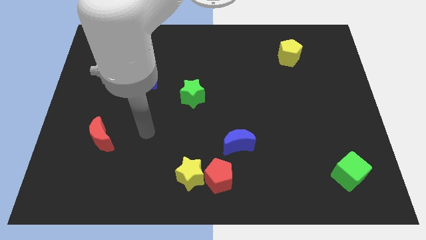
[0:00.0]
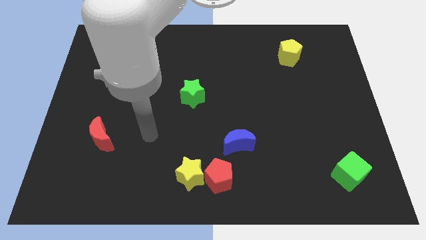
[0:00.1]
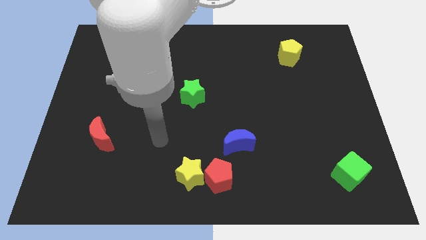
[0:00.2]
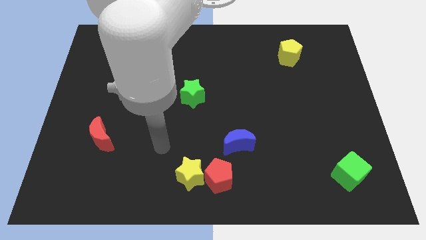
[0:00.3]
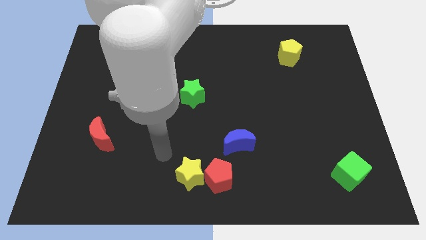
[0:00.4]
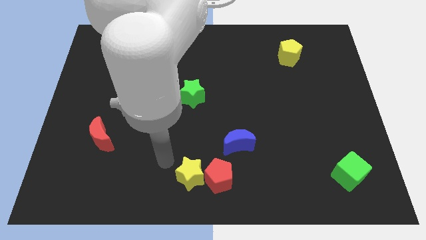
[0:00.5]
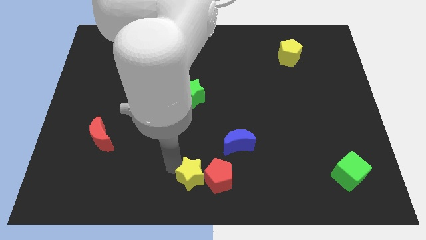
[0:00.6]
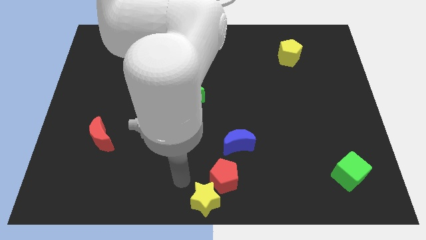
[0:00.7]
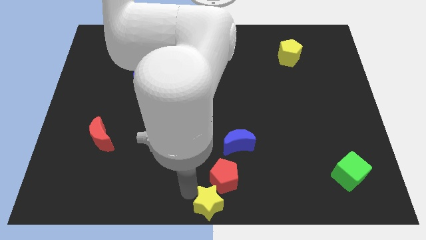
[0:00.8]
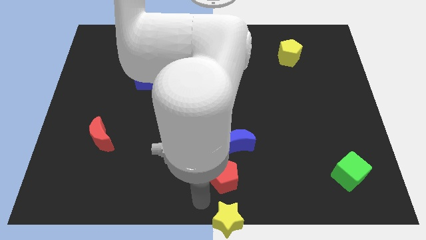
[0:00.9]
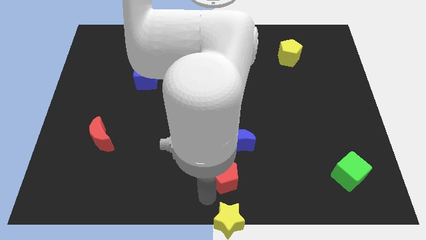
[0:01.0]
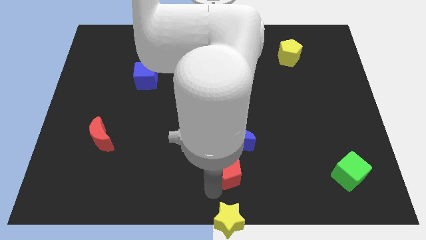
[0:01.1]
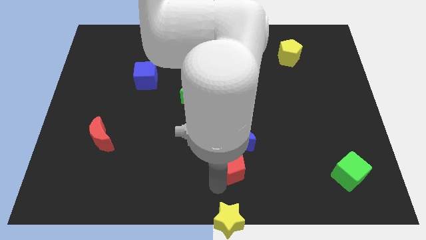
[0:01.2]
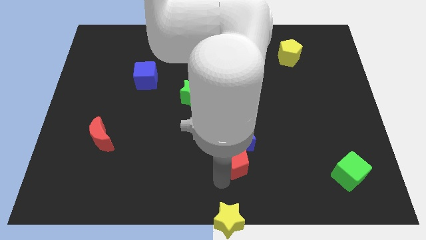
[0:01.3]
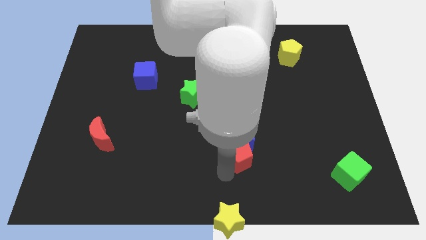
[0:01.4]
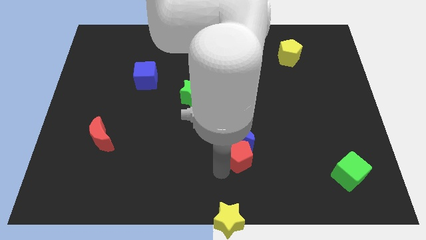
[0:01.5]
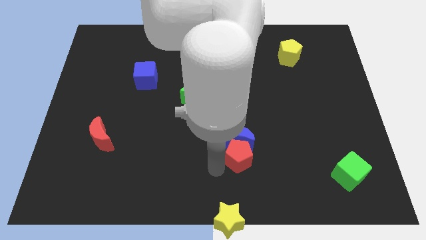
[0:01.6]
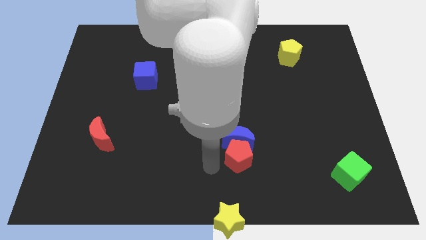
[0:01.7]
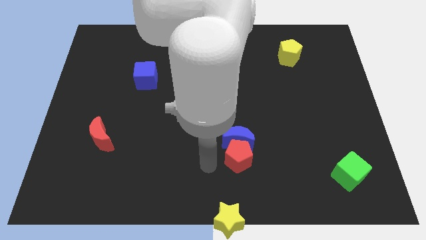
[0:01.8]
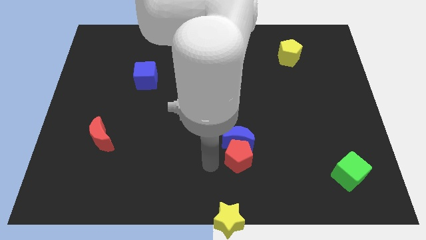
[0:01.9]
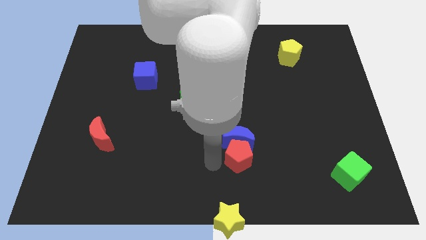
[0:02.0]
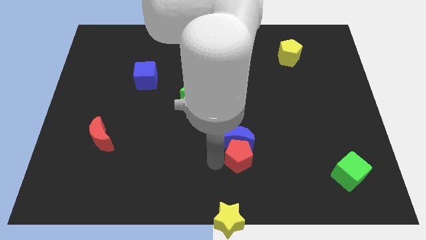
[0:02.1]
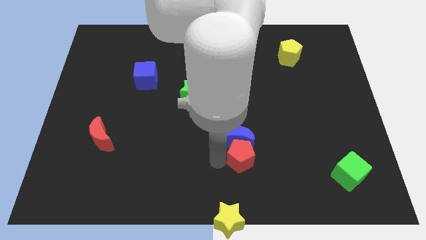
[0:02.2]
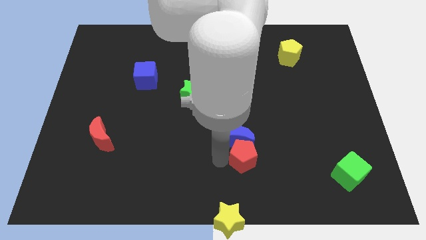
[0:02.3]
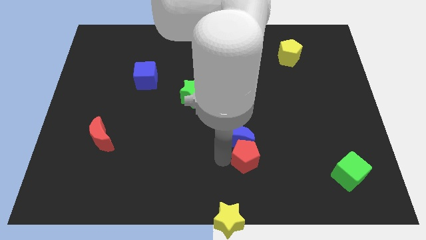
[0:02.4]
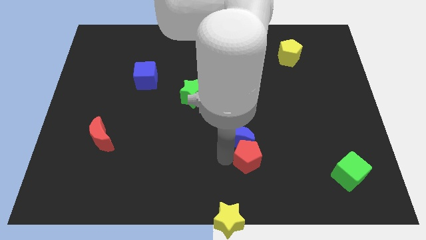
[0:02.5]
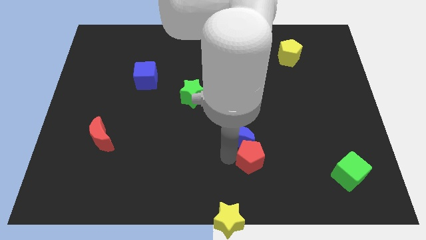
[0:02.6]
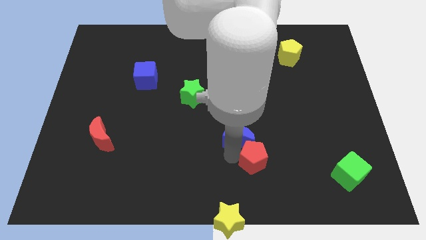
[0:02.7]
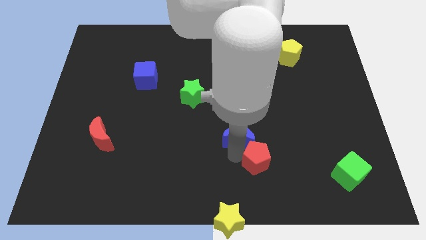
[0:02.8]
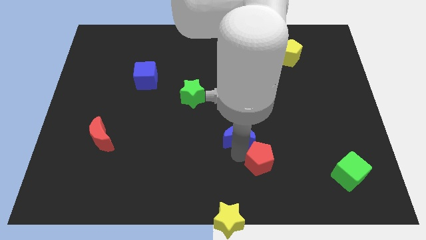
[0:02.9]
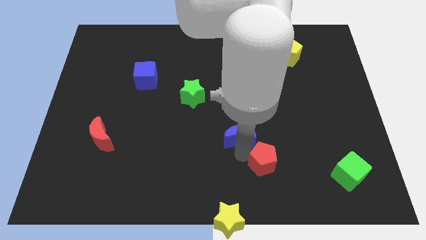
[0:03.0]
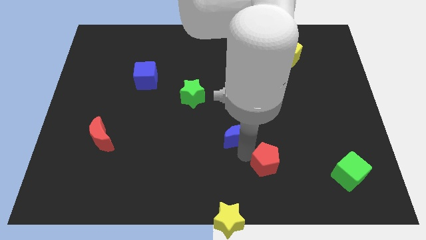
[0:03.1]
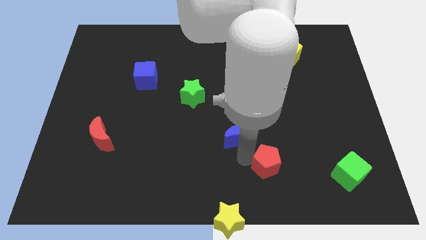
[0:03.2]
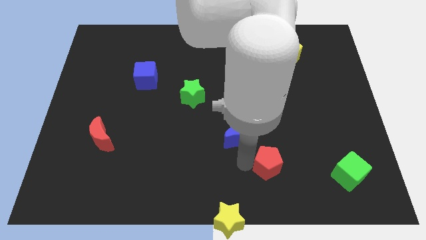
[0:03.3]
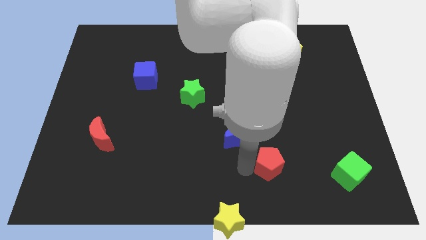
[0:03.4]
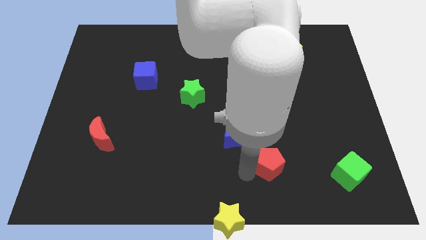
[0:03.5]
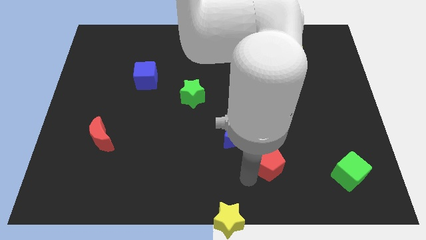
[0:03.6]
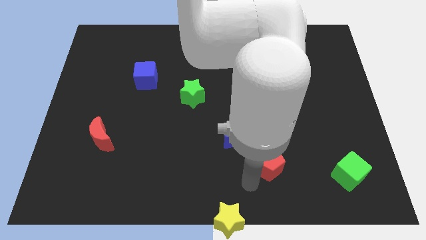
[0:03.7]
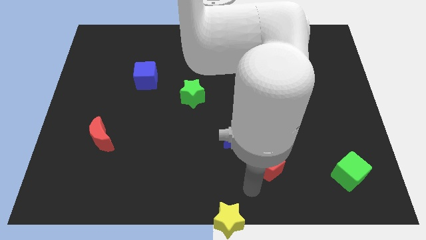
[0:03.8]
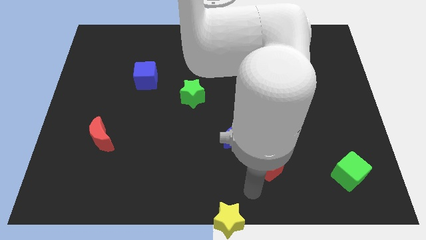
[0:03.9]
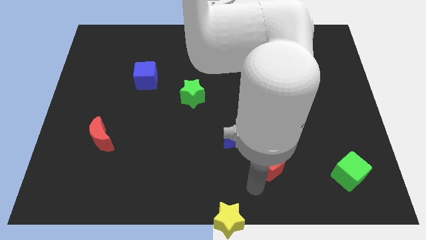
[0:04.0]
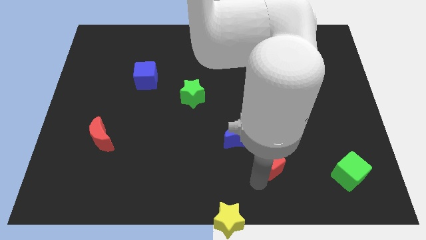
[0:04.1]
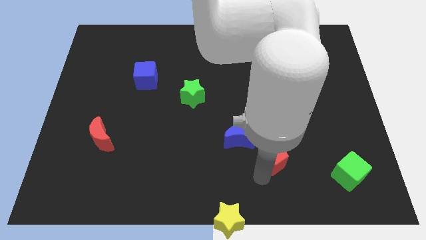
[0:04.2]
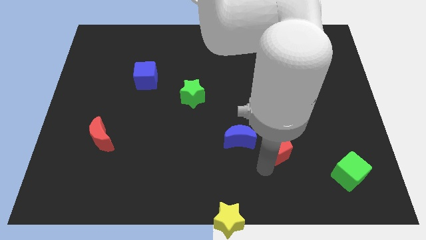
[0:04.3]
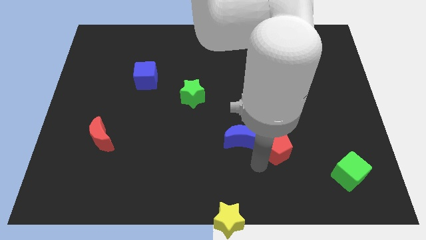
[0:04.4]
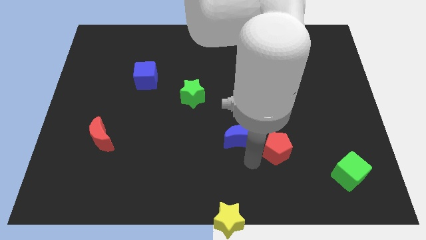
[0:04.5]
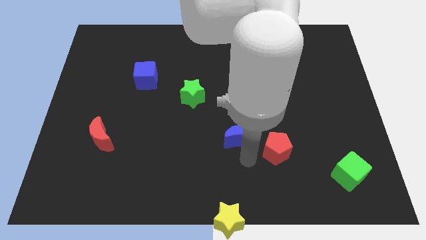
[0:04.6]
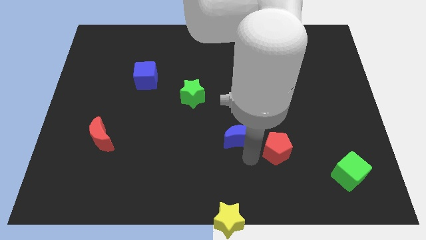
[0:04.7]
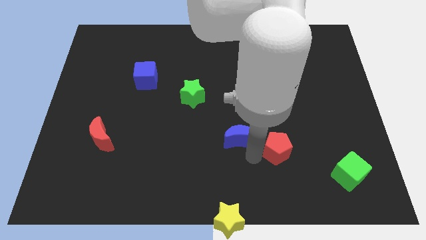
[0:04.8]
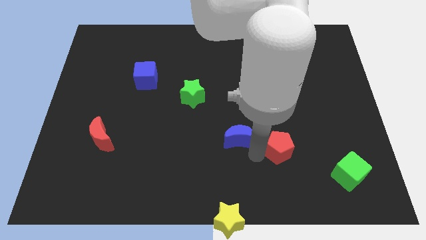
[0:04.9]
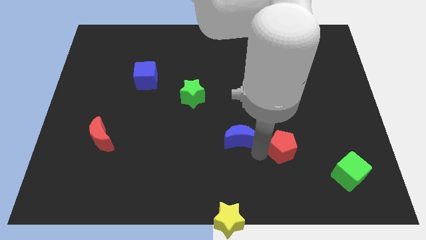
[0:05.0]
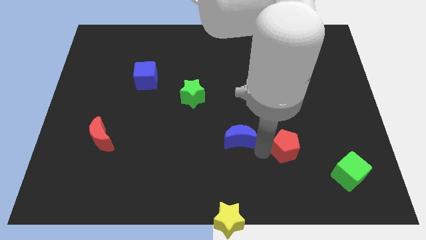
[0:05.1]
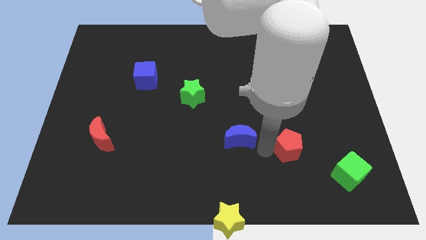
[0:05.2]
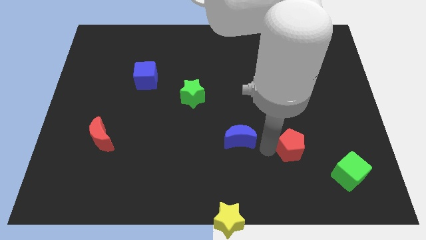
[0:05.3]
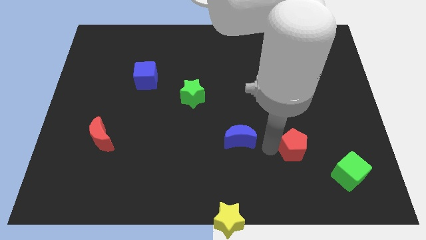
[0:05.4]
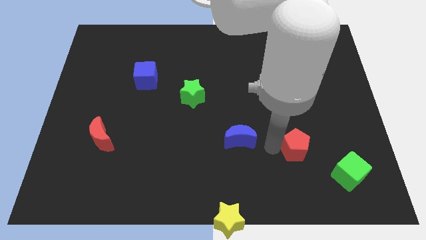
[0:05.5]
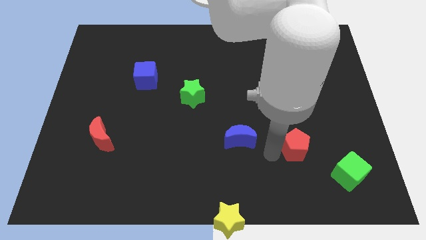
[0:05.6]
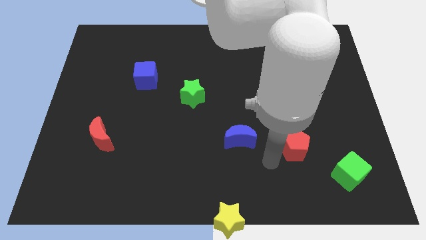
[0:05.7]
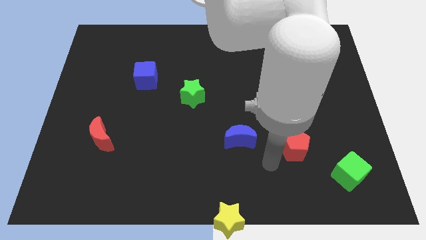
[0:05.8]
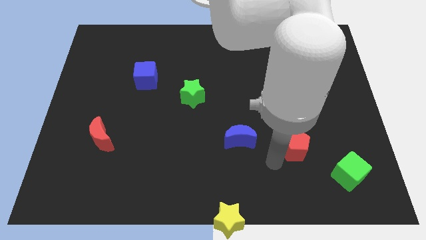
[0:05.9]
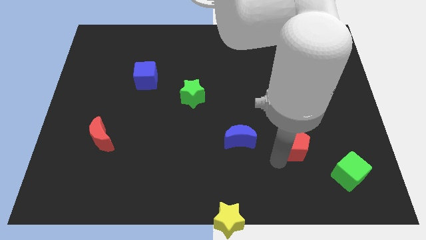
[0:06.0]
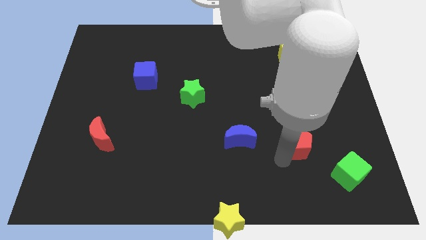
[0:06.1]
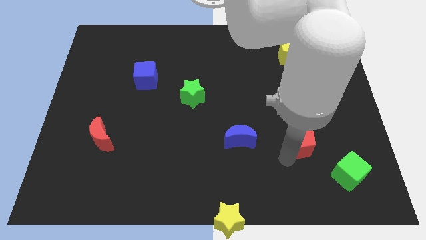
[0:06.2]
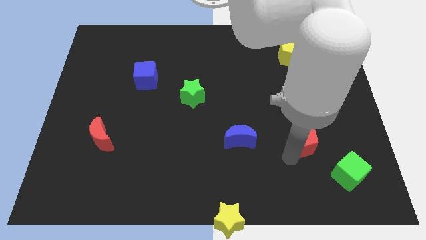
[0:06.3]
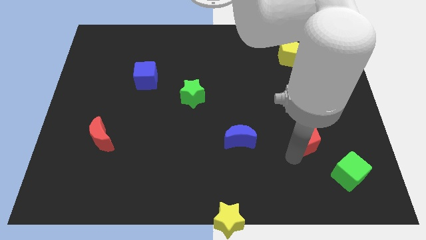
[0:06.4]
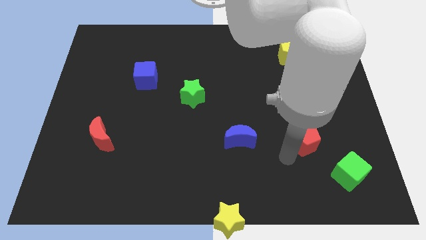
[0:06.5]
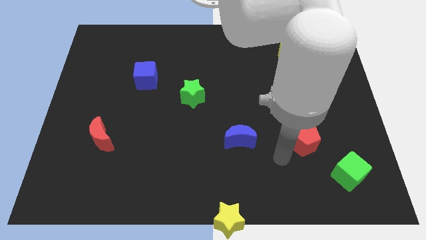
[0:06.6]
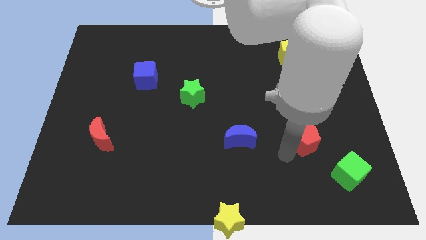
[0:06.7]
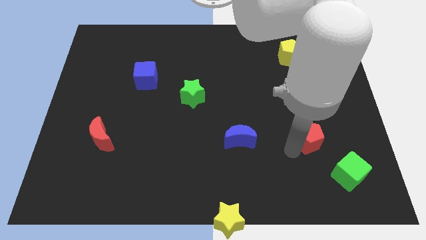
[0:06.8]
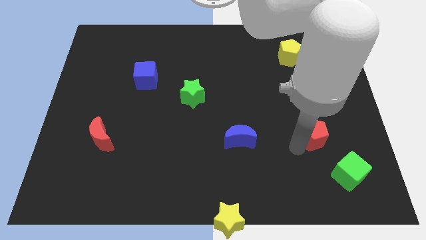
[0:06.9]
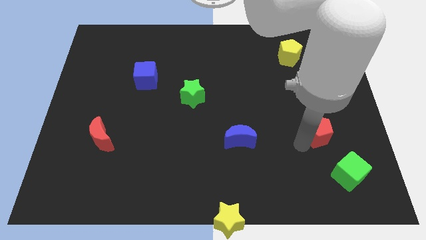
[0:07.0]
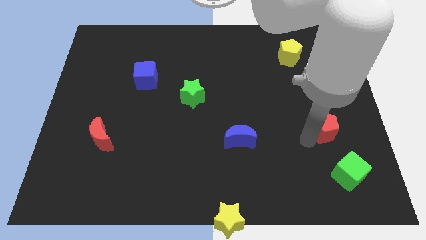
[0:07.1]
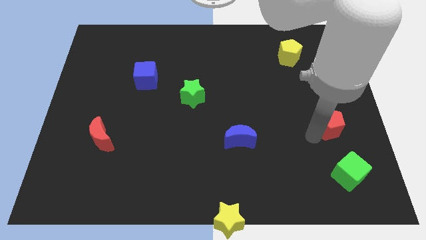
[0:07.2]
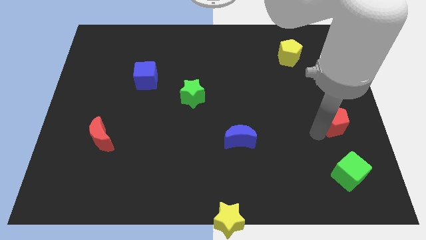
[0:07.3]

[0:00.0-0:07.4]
put the red pentagon to the center right

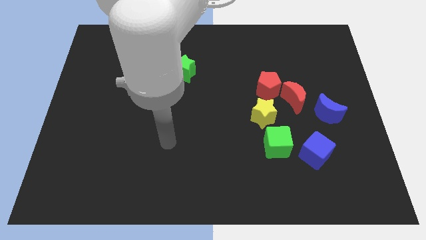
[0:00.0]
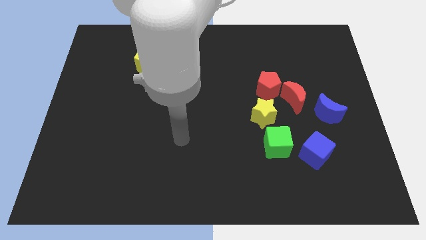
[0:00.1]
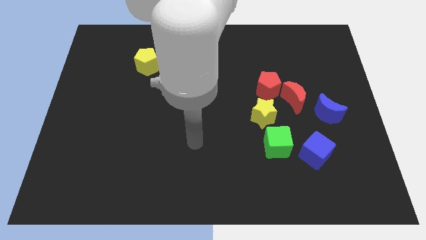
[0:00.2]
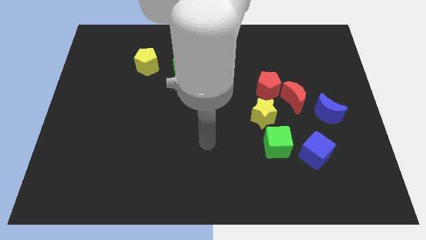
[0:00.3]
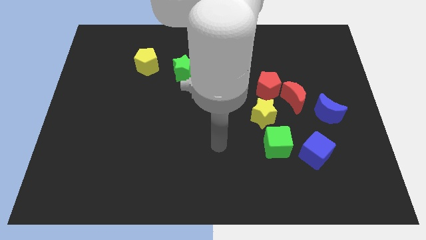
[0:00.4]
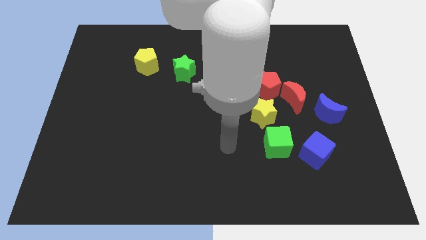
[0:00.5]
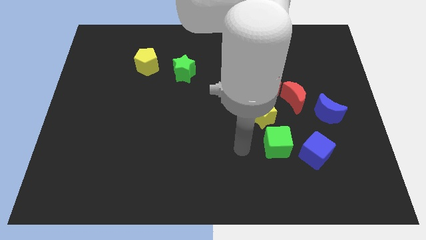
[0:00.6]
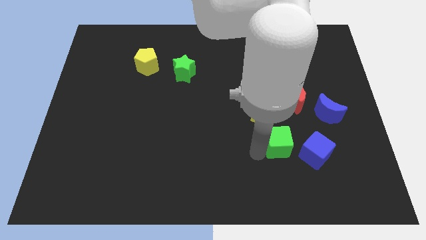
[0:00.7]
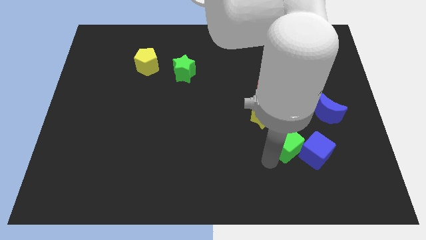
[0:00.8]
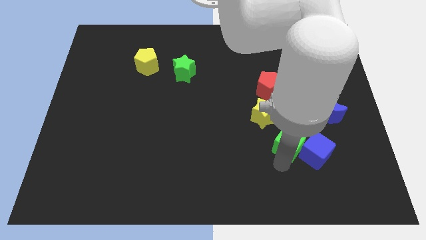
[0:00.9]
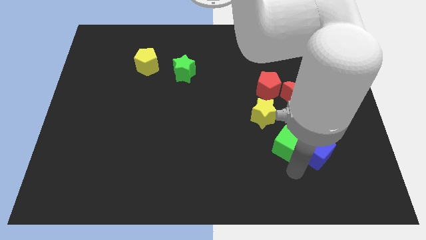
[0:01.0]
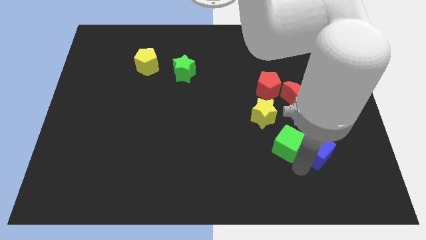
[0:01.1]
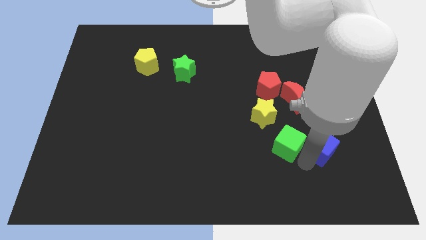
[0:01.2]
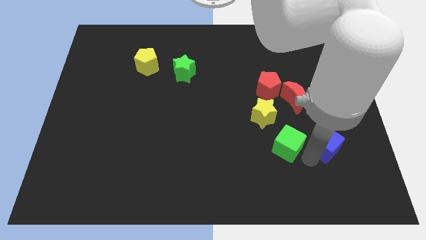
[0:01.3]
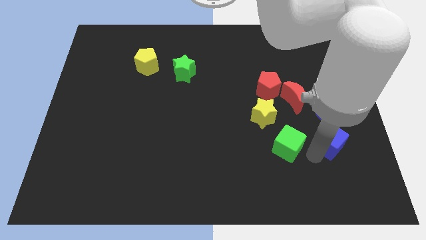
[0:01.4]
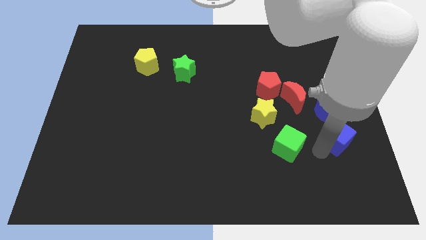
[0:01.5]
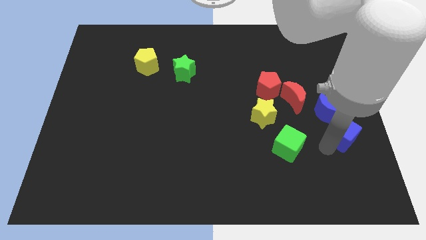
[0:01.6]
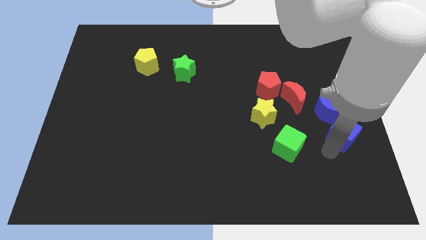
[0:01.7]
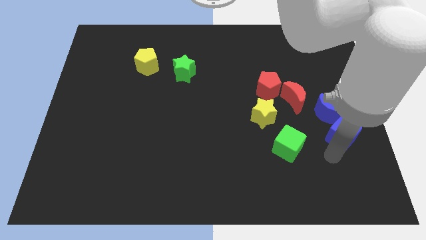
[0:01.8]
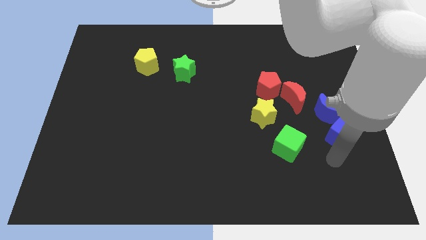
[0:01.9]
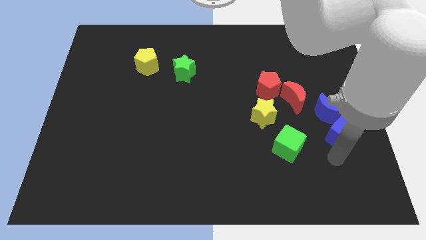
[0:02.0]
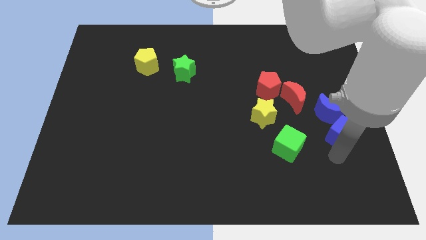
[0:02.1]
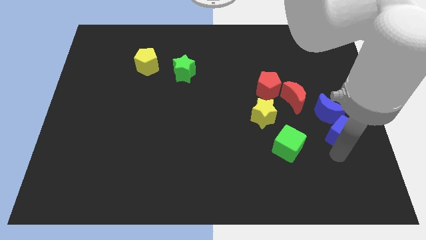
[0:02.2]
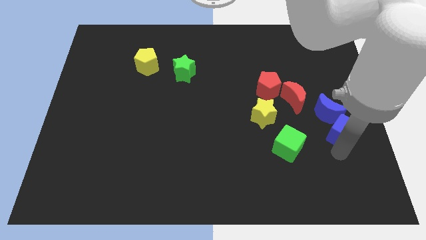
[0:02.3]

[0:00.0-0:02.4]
put the blue cube to the right side
